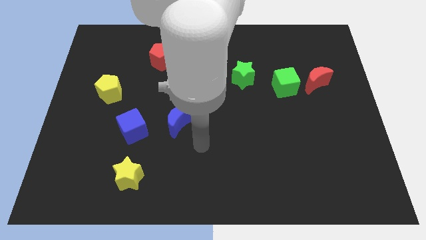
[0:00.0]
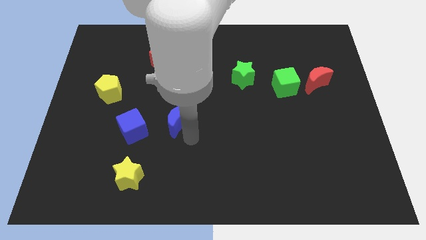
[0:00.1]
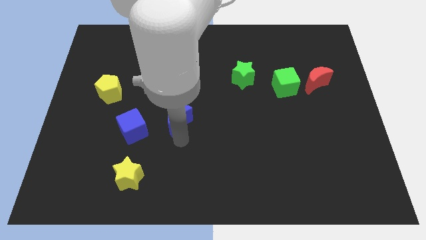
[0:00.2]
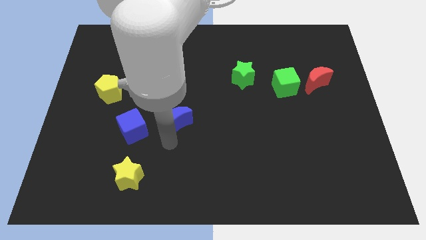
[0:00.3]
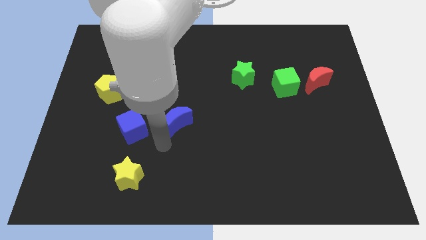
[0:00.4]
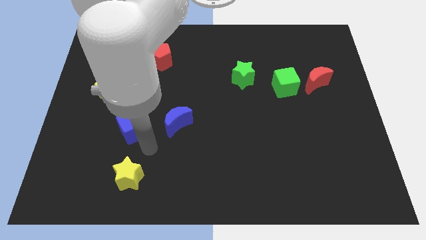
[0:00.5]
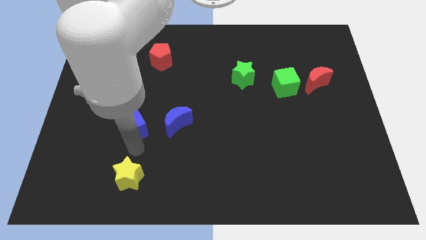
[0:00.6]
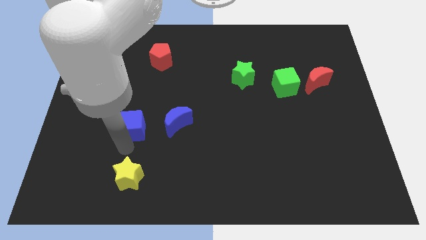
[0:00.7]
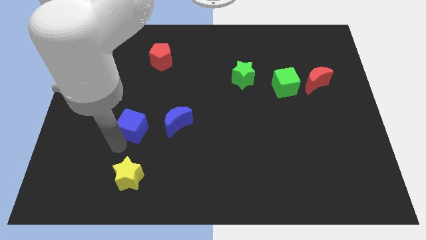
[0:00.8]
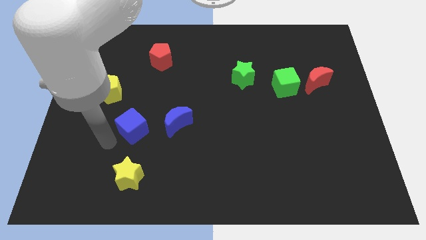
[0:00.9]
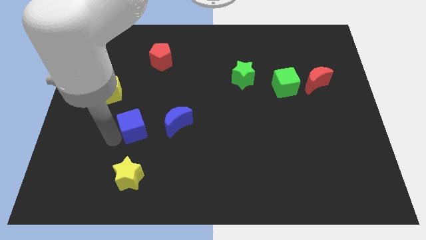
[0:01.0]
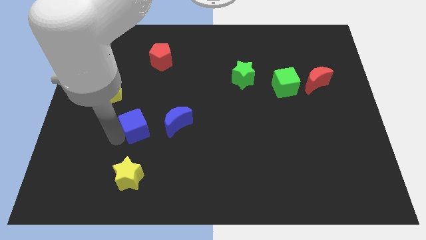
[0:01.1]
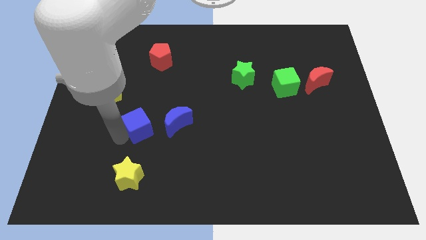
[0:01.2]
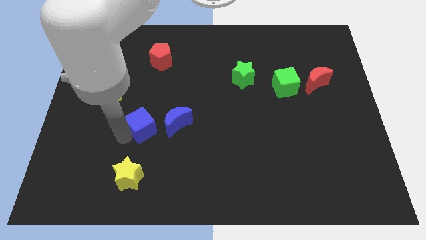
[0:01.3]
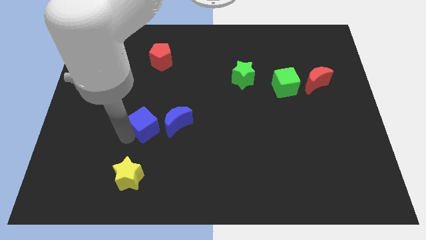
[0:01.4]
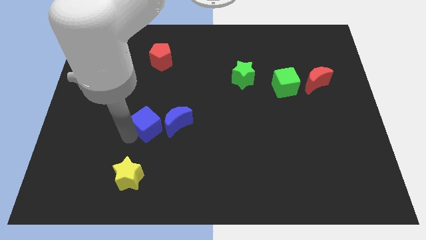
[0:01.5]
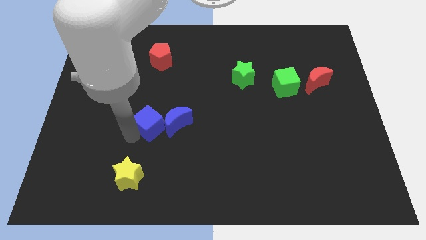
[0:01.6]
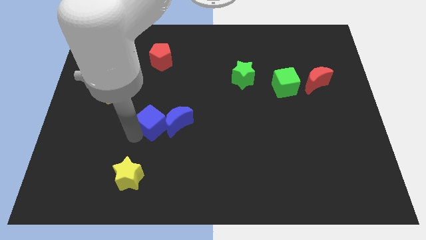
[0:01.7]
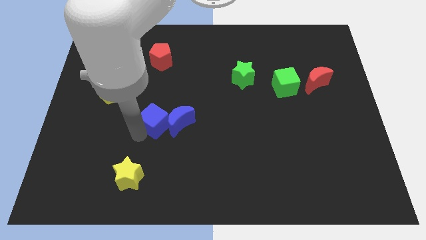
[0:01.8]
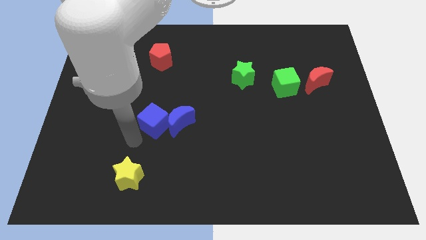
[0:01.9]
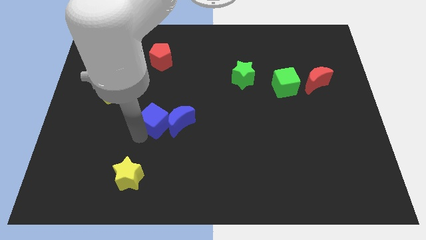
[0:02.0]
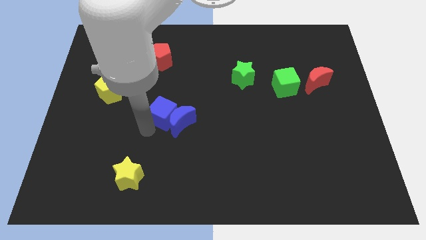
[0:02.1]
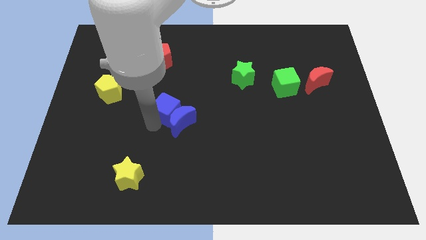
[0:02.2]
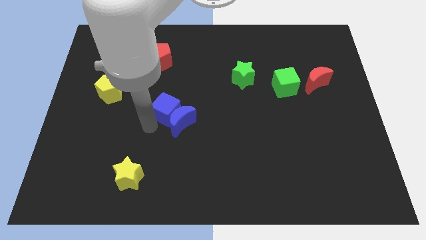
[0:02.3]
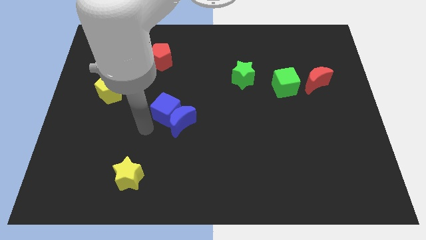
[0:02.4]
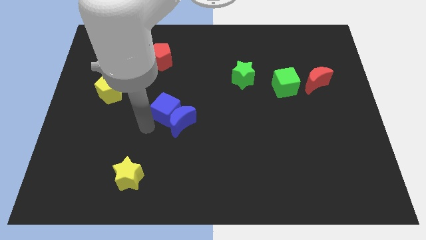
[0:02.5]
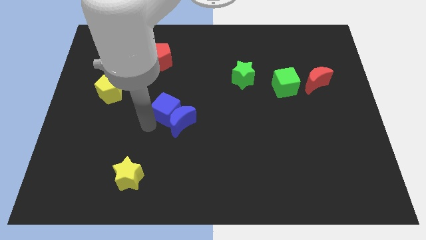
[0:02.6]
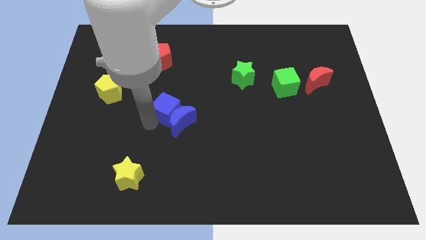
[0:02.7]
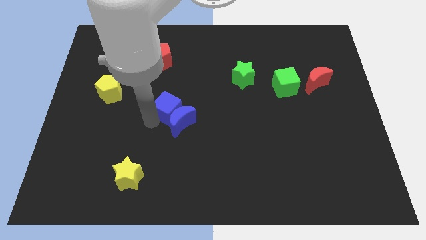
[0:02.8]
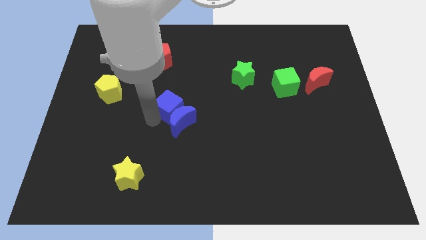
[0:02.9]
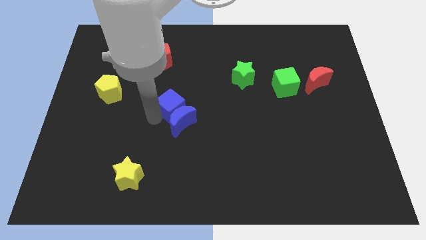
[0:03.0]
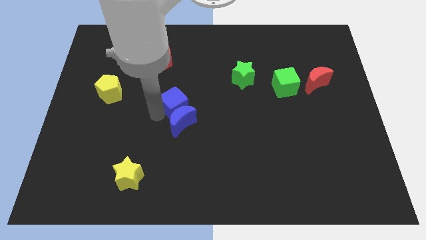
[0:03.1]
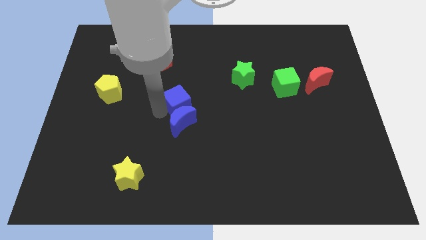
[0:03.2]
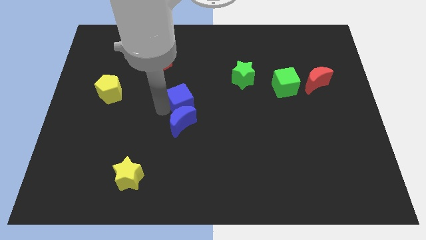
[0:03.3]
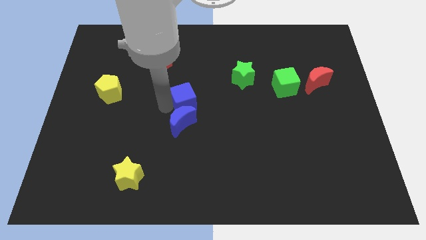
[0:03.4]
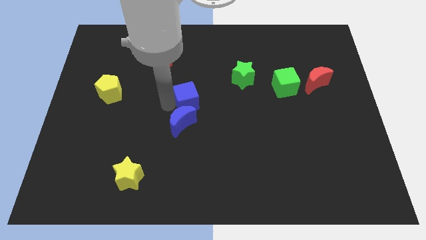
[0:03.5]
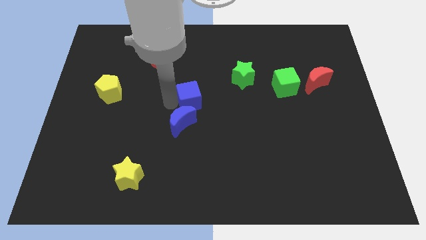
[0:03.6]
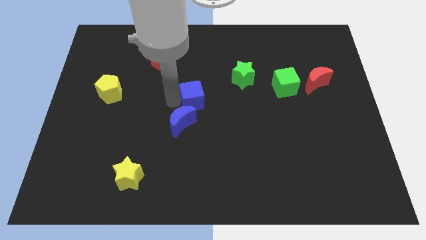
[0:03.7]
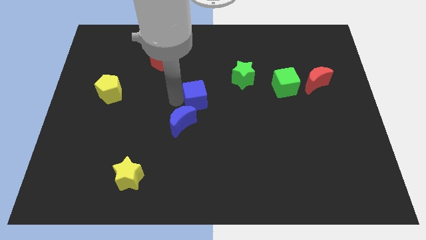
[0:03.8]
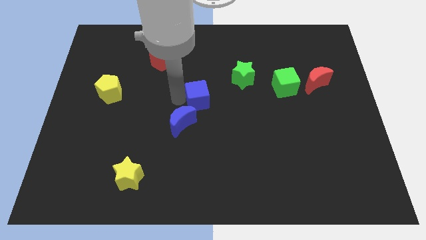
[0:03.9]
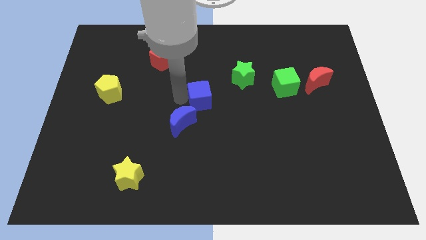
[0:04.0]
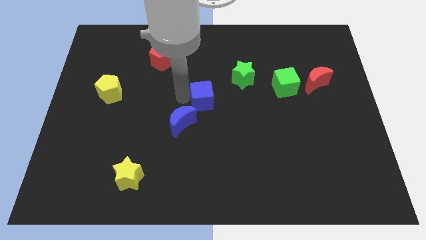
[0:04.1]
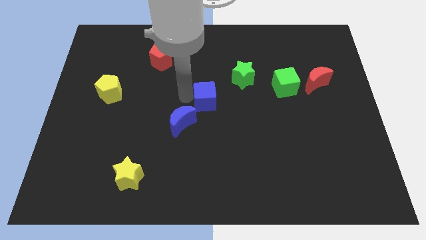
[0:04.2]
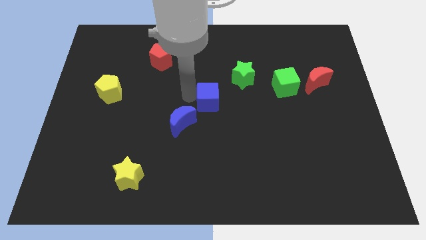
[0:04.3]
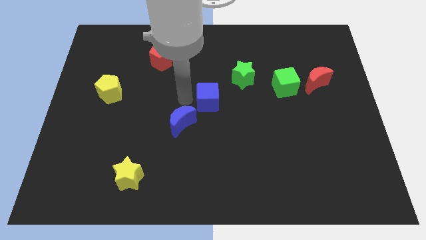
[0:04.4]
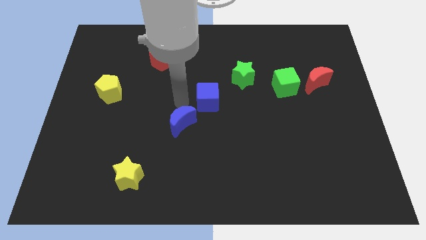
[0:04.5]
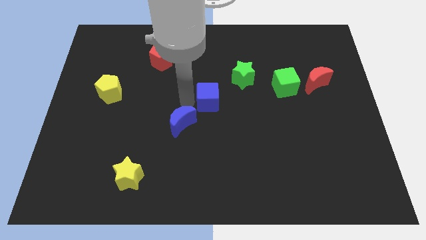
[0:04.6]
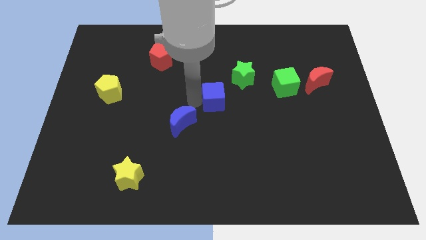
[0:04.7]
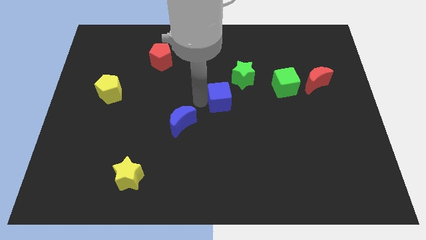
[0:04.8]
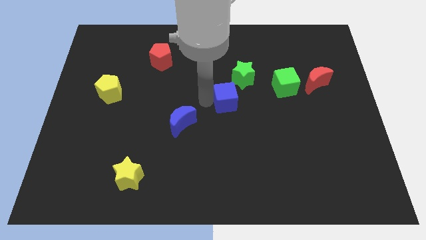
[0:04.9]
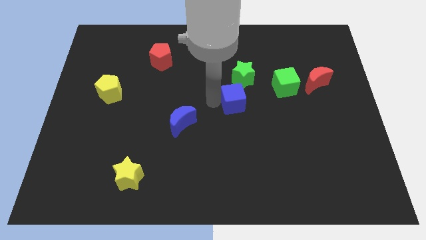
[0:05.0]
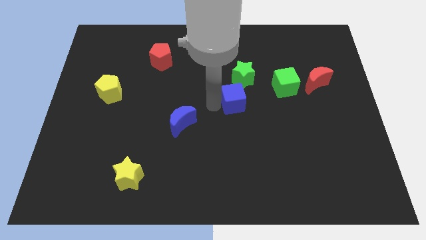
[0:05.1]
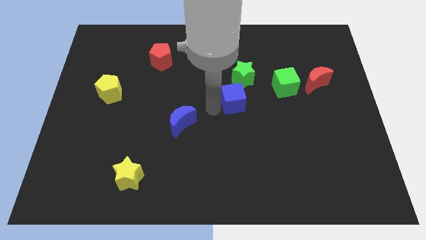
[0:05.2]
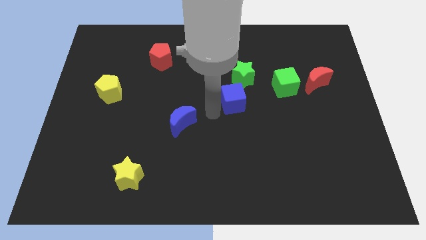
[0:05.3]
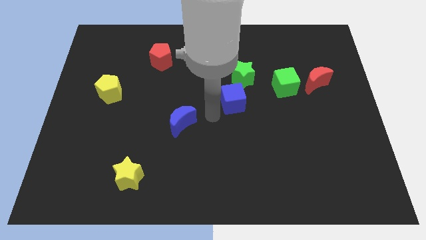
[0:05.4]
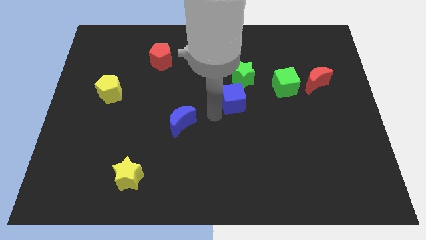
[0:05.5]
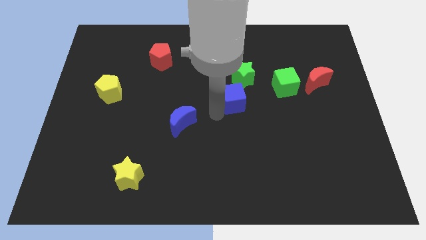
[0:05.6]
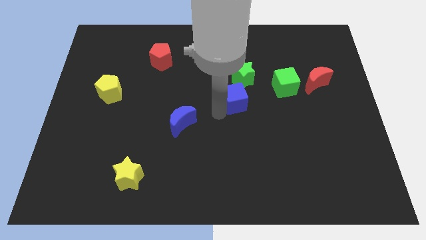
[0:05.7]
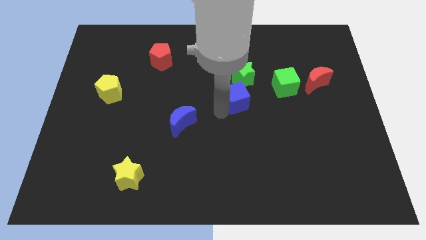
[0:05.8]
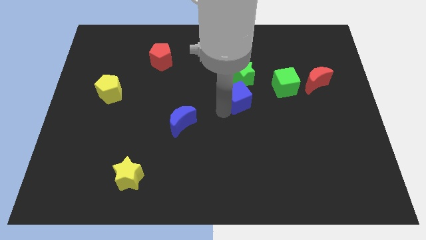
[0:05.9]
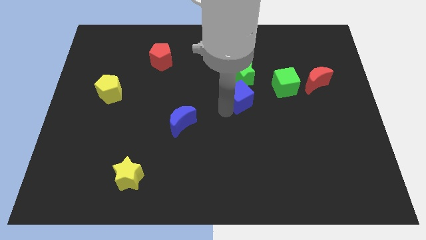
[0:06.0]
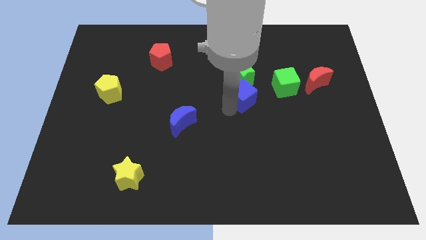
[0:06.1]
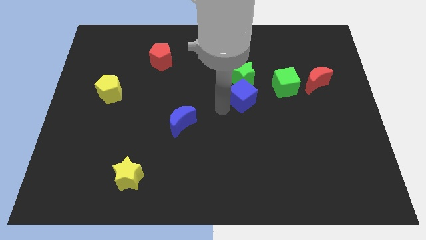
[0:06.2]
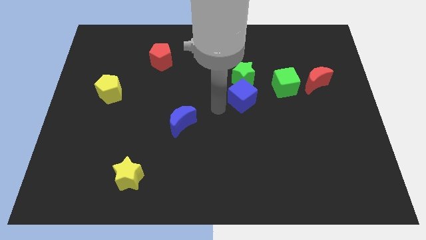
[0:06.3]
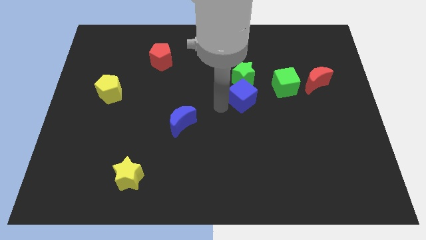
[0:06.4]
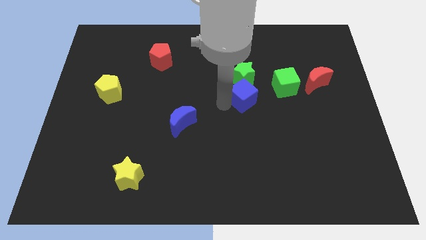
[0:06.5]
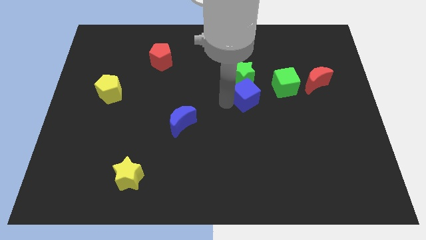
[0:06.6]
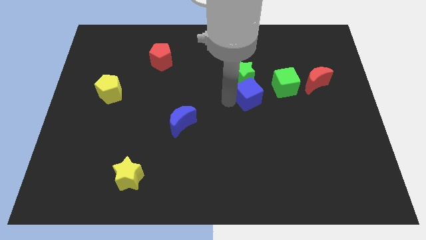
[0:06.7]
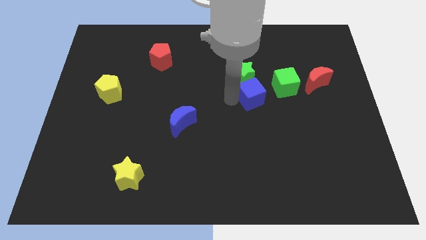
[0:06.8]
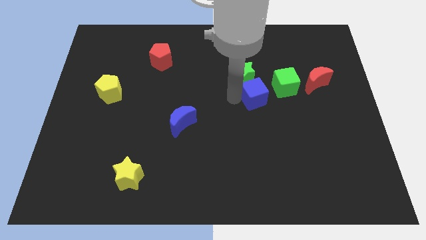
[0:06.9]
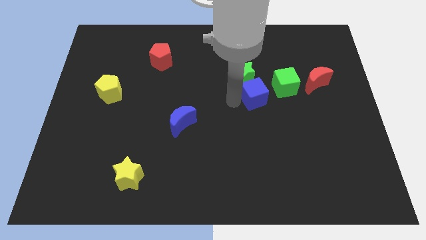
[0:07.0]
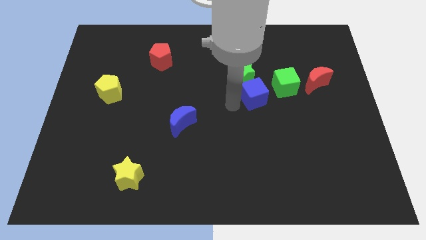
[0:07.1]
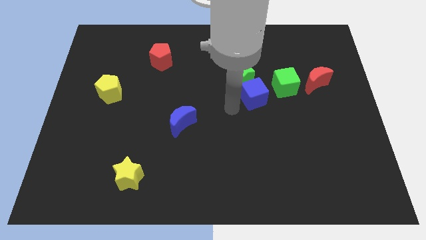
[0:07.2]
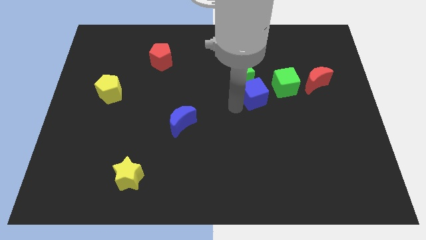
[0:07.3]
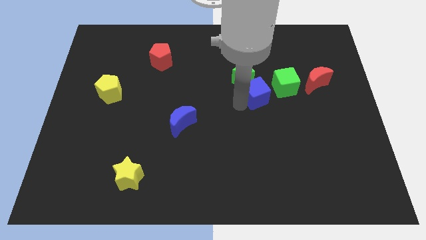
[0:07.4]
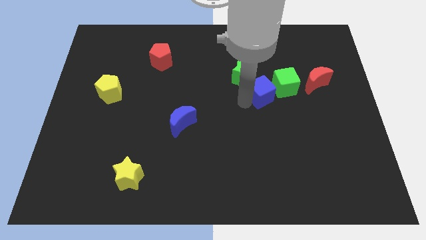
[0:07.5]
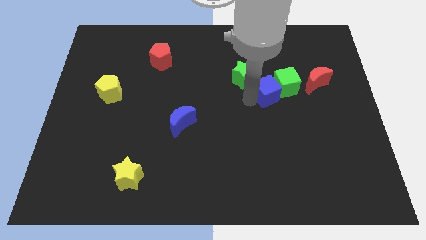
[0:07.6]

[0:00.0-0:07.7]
move the blue cube to the green cube
